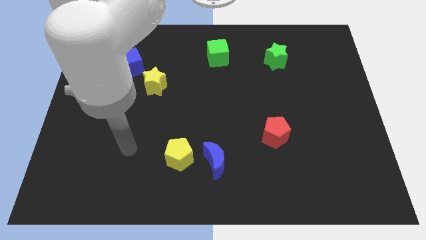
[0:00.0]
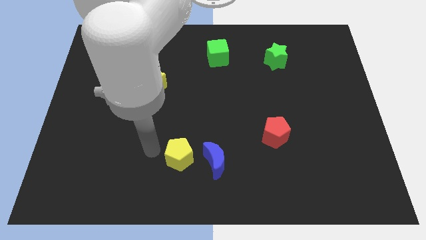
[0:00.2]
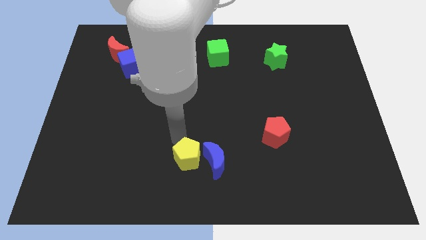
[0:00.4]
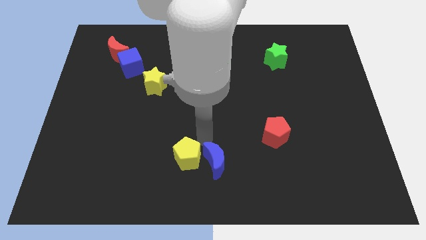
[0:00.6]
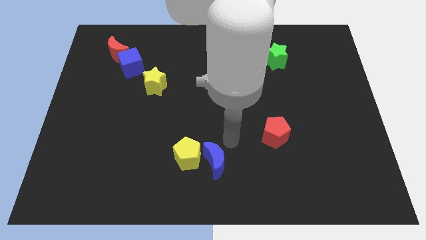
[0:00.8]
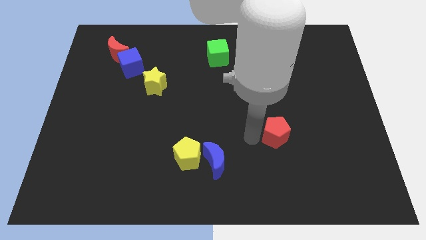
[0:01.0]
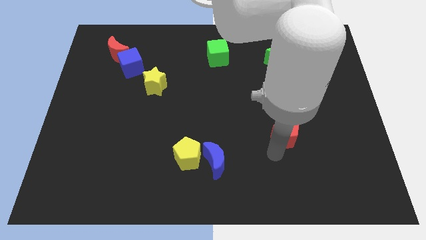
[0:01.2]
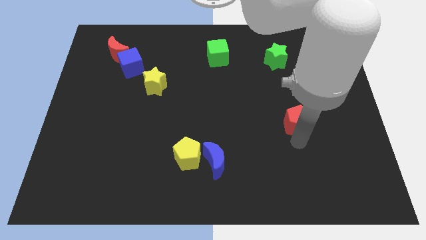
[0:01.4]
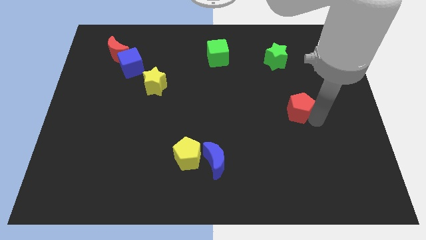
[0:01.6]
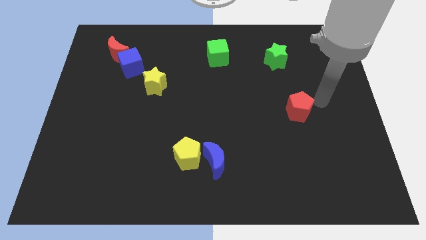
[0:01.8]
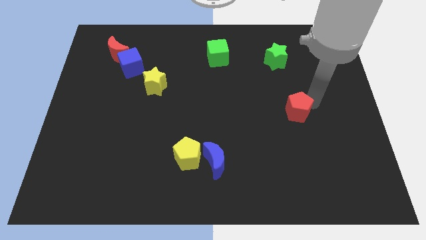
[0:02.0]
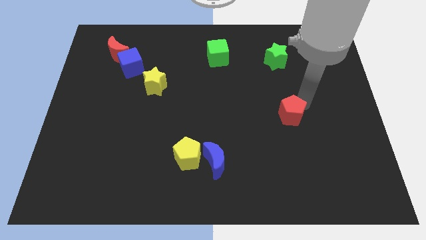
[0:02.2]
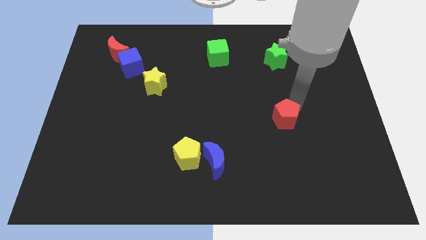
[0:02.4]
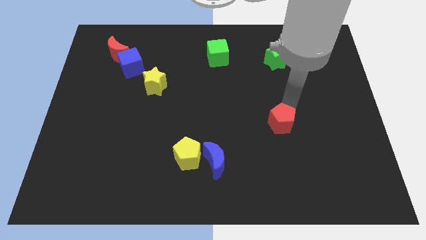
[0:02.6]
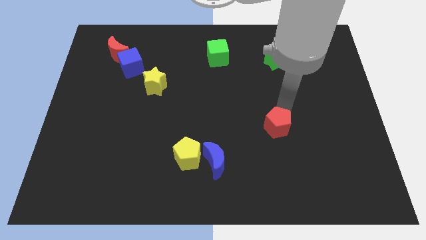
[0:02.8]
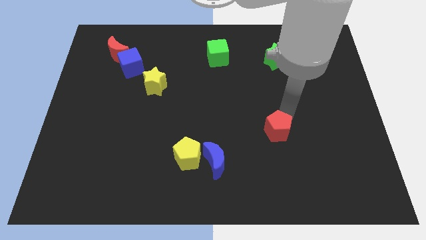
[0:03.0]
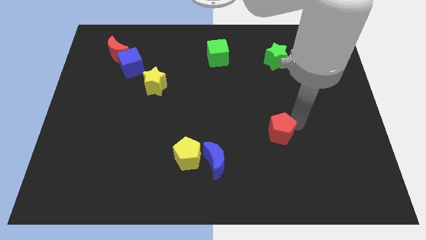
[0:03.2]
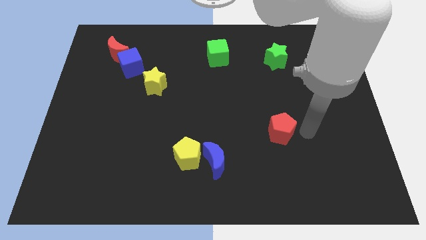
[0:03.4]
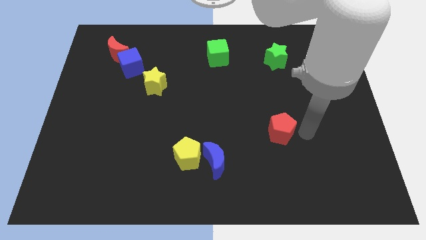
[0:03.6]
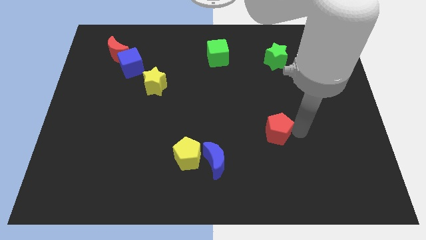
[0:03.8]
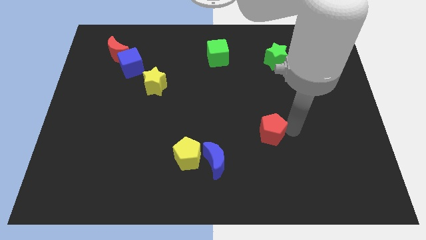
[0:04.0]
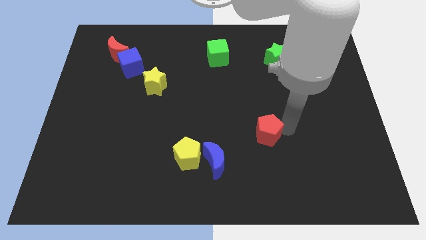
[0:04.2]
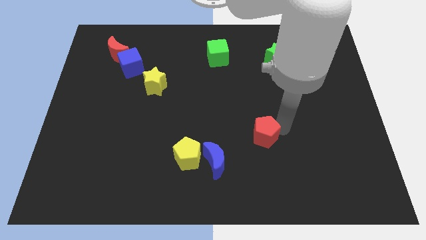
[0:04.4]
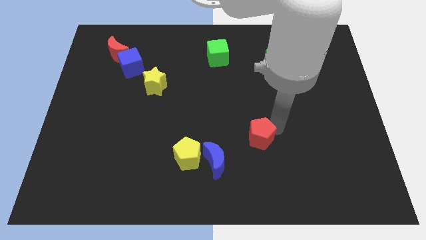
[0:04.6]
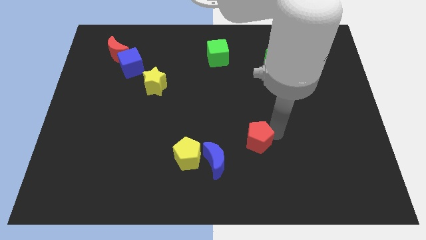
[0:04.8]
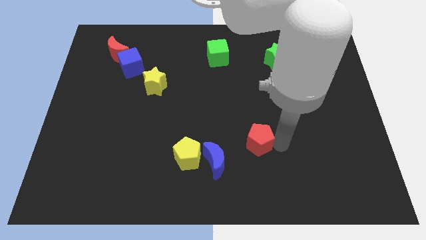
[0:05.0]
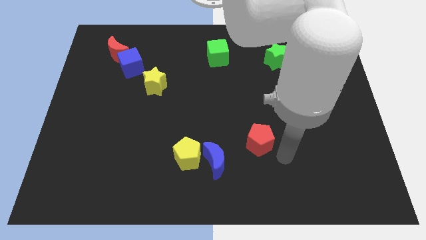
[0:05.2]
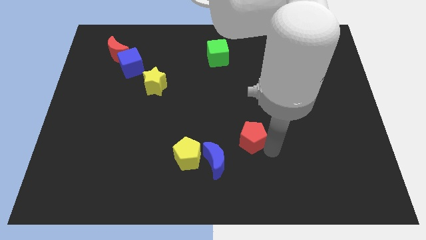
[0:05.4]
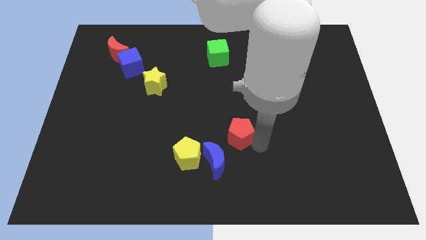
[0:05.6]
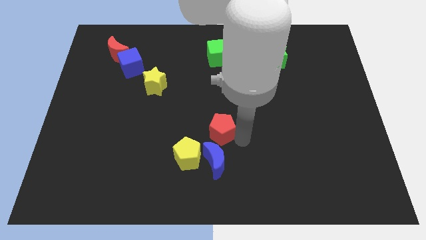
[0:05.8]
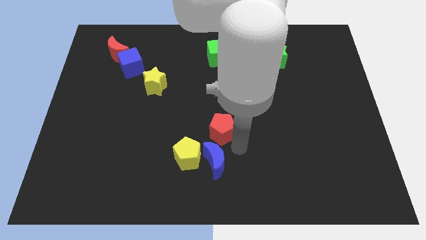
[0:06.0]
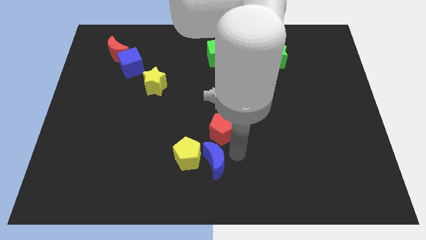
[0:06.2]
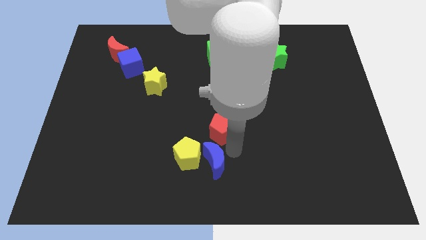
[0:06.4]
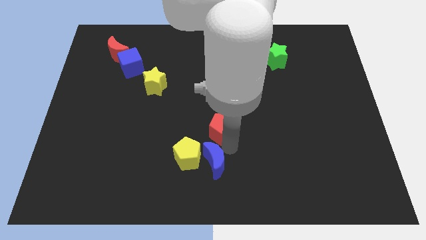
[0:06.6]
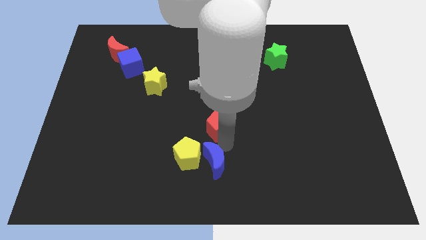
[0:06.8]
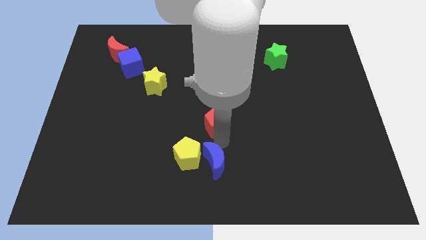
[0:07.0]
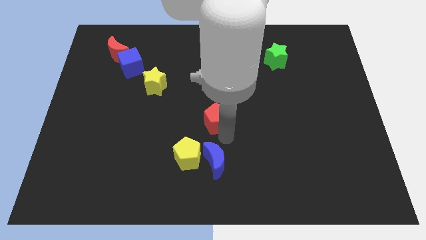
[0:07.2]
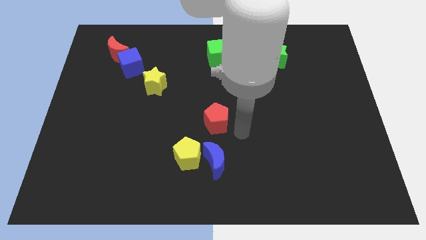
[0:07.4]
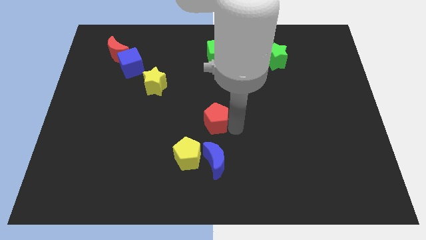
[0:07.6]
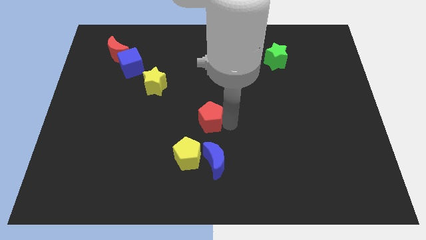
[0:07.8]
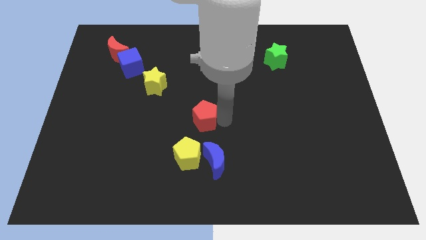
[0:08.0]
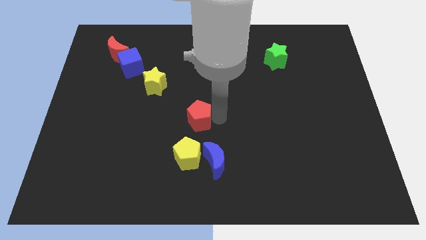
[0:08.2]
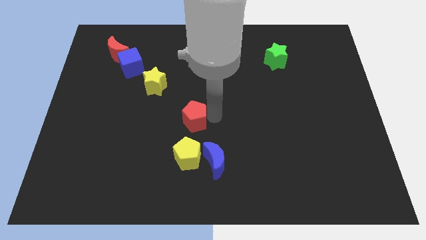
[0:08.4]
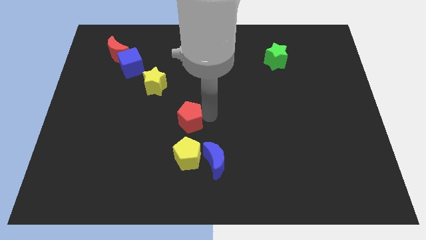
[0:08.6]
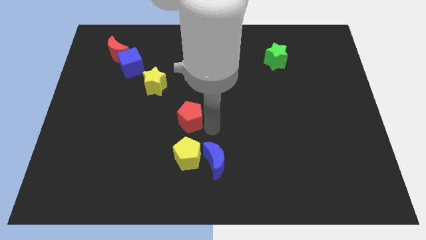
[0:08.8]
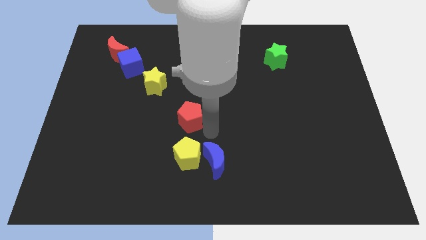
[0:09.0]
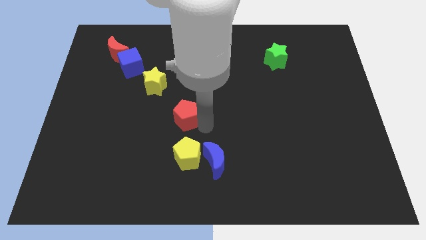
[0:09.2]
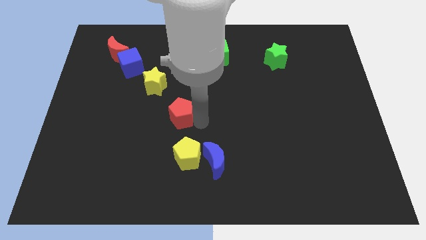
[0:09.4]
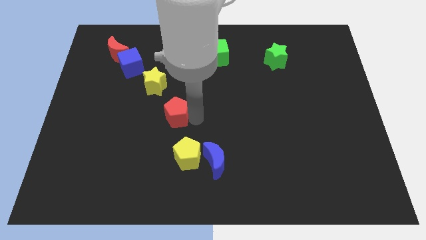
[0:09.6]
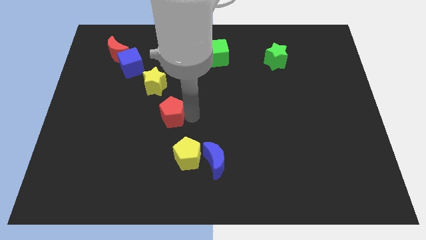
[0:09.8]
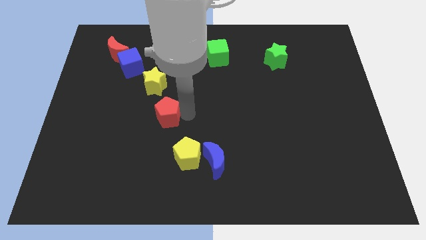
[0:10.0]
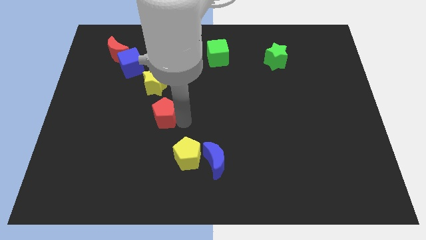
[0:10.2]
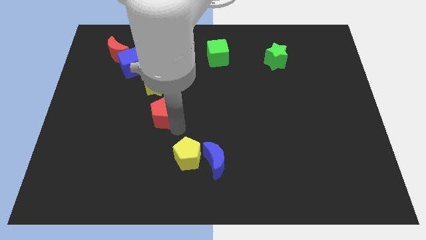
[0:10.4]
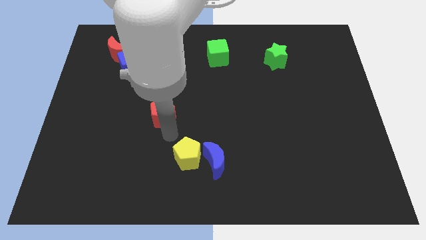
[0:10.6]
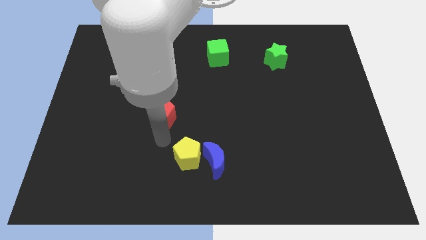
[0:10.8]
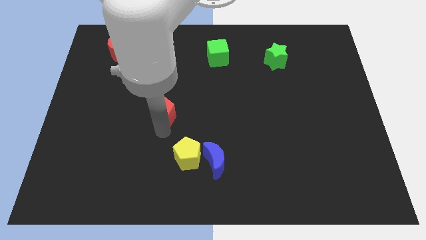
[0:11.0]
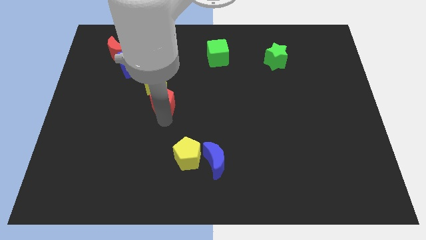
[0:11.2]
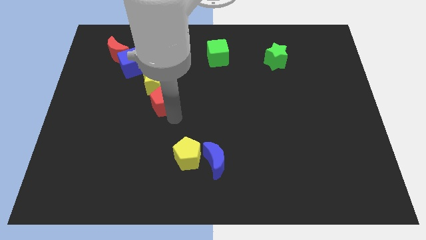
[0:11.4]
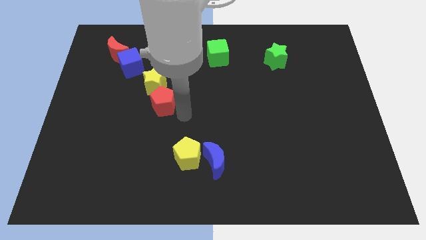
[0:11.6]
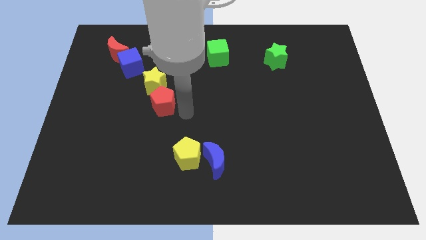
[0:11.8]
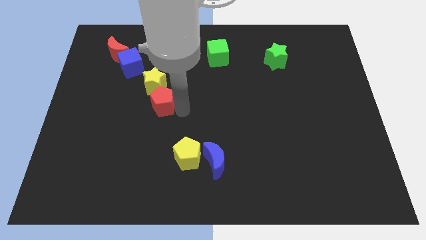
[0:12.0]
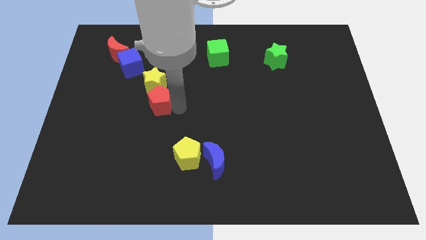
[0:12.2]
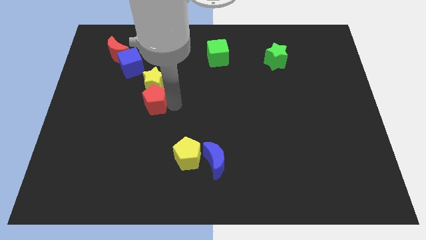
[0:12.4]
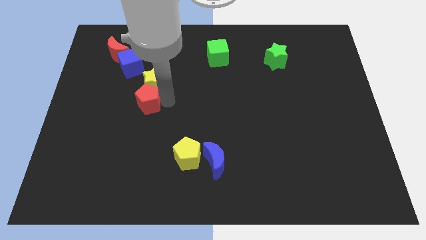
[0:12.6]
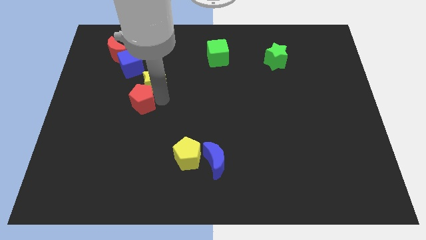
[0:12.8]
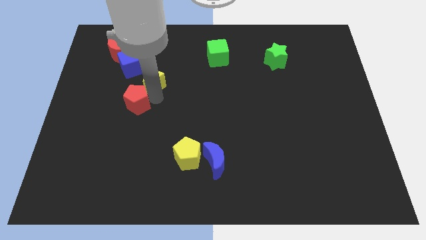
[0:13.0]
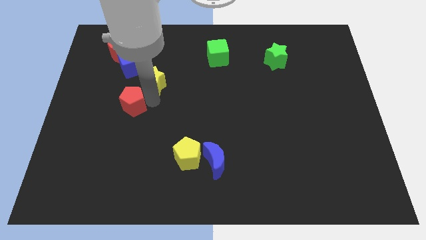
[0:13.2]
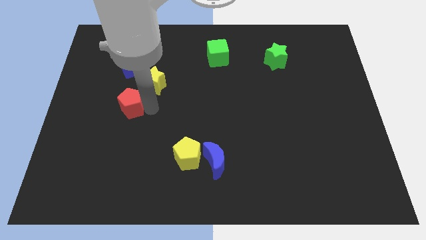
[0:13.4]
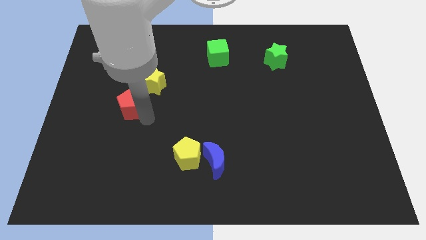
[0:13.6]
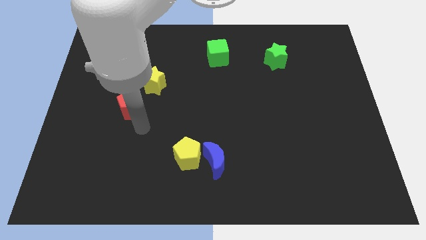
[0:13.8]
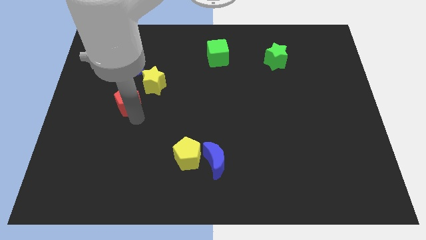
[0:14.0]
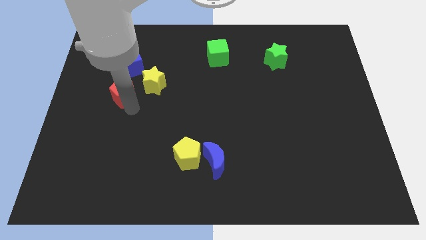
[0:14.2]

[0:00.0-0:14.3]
slide the red pentagon to the bottom side of the red moon
